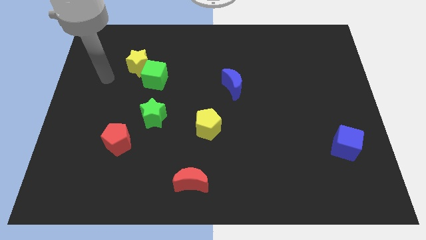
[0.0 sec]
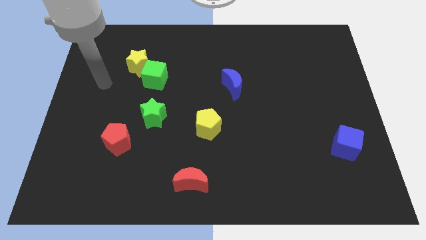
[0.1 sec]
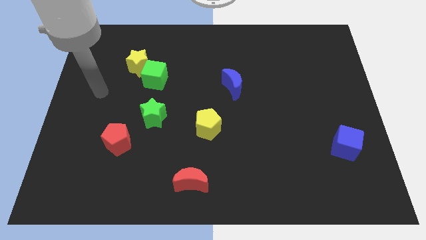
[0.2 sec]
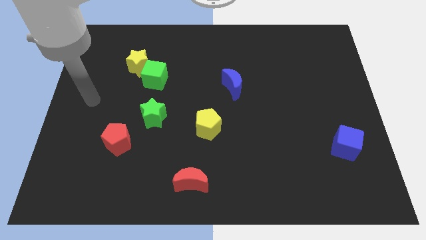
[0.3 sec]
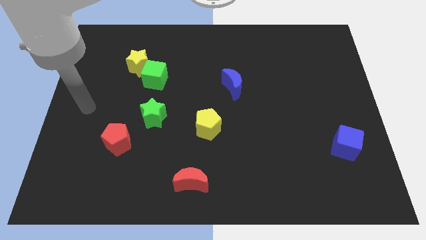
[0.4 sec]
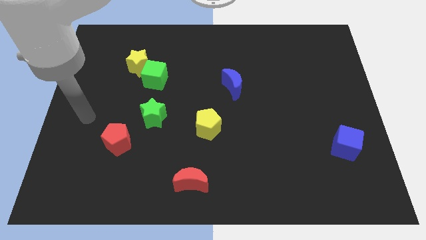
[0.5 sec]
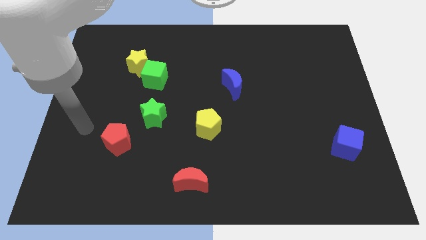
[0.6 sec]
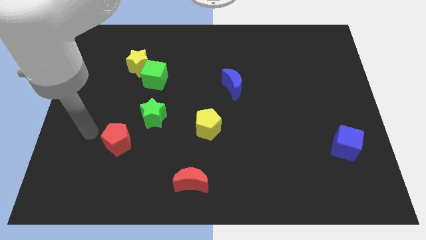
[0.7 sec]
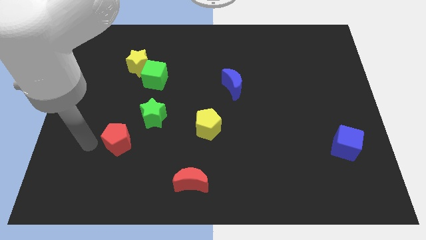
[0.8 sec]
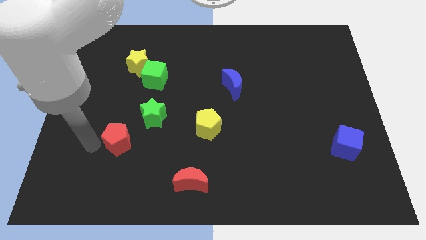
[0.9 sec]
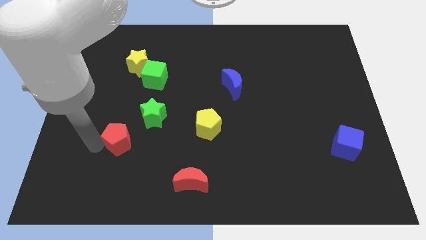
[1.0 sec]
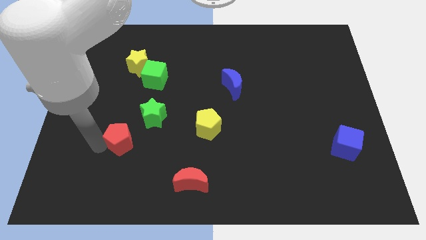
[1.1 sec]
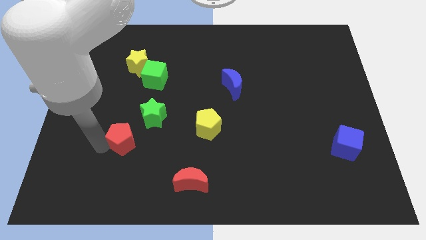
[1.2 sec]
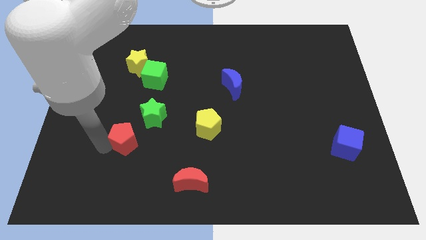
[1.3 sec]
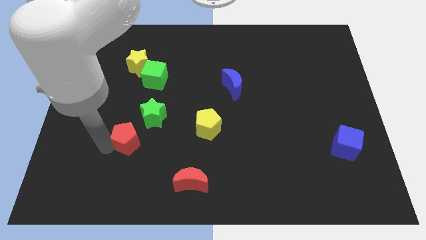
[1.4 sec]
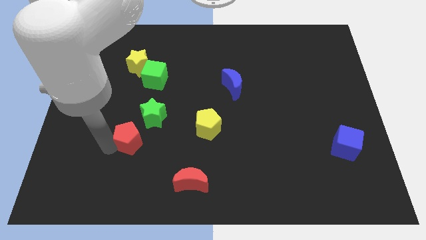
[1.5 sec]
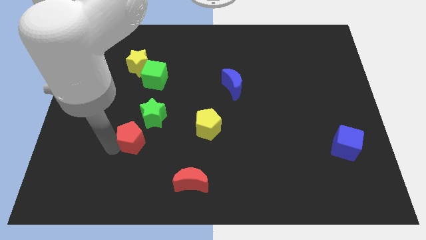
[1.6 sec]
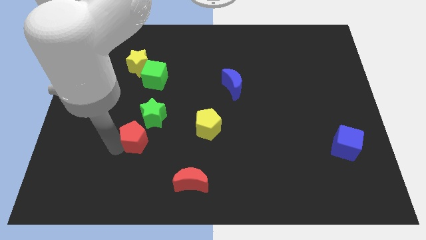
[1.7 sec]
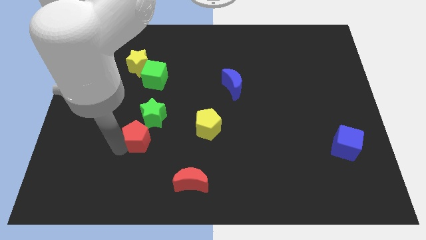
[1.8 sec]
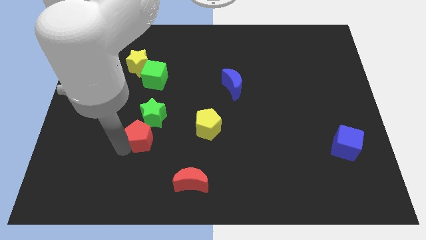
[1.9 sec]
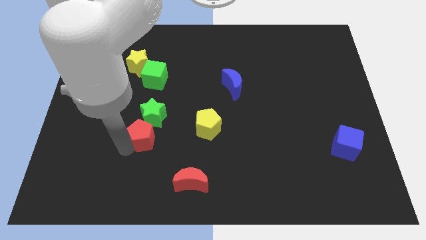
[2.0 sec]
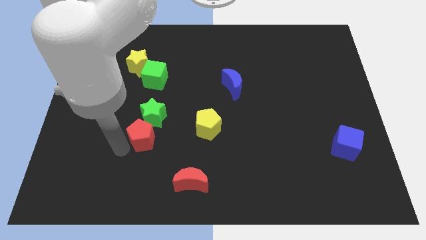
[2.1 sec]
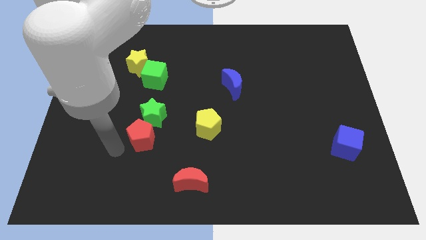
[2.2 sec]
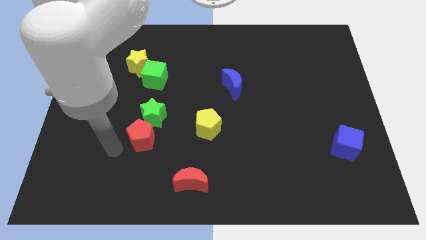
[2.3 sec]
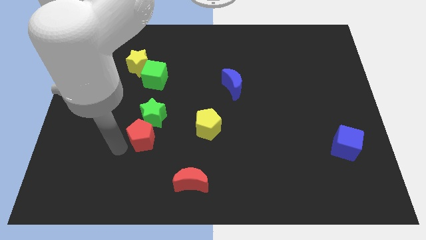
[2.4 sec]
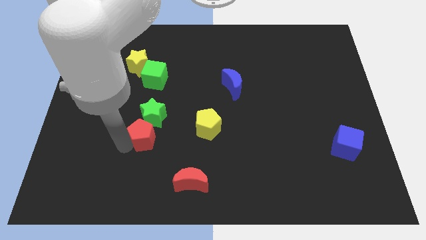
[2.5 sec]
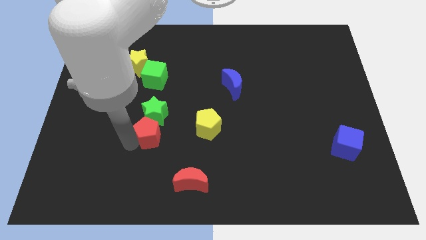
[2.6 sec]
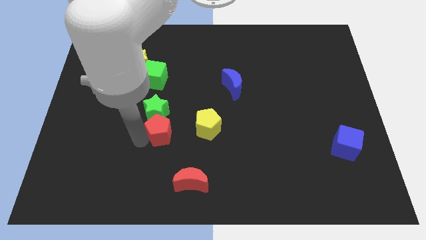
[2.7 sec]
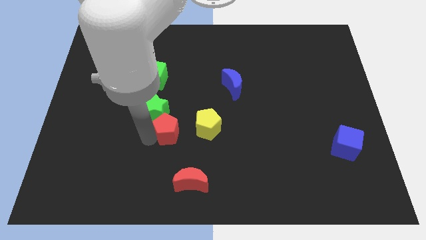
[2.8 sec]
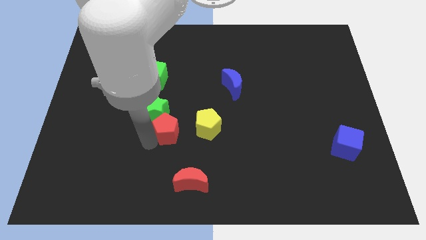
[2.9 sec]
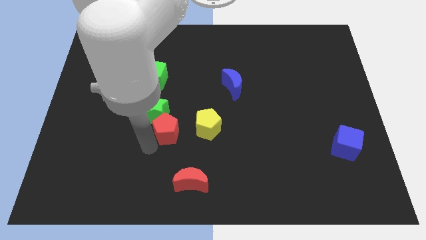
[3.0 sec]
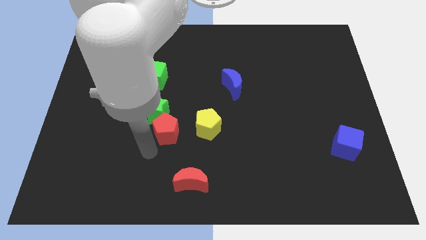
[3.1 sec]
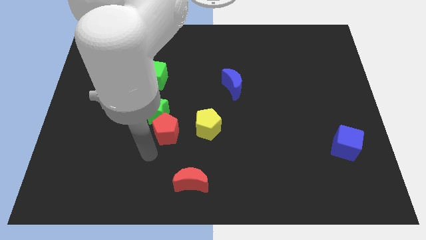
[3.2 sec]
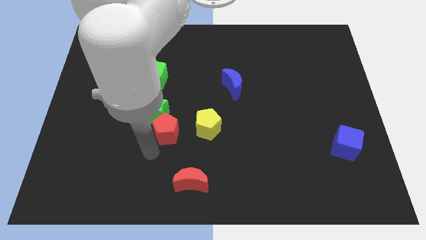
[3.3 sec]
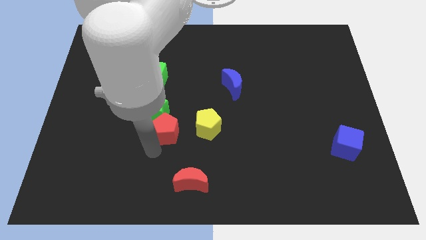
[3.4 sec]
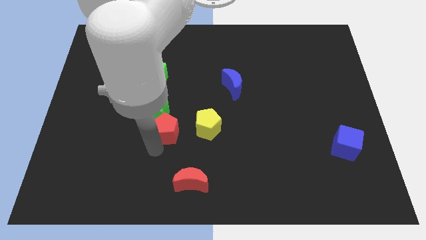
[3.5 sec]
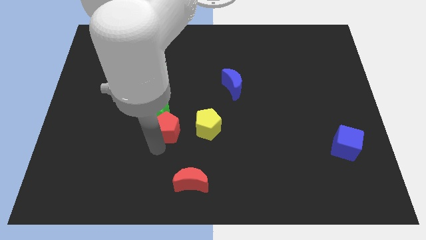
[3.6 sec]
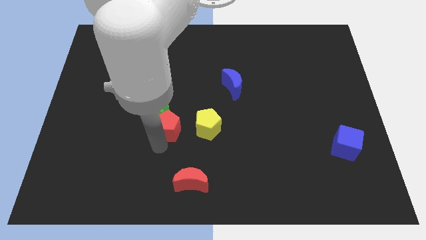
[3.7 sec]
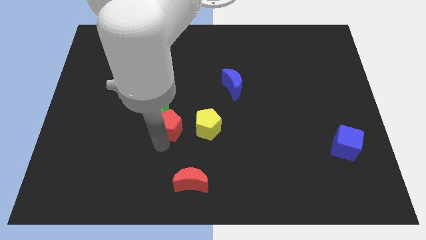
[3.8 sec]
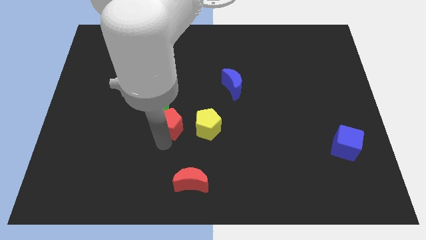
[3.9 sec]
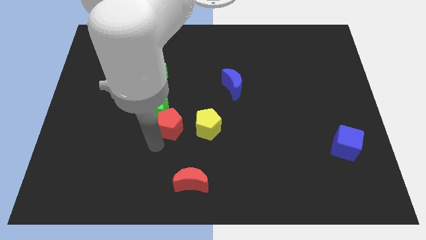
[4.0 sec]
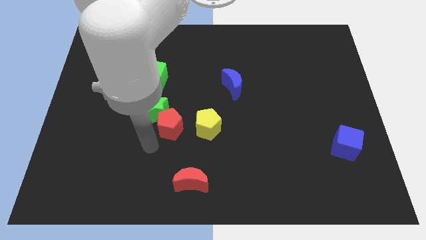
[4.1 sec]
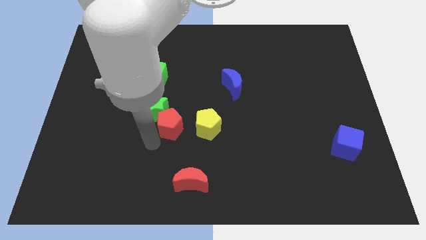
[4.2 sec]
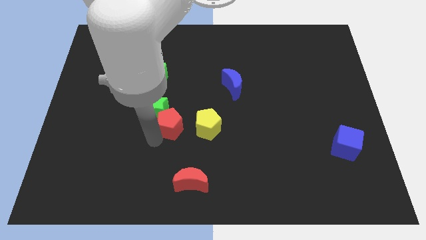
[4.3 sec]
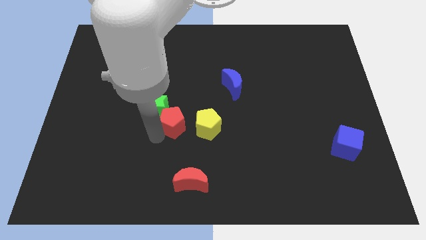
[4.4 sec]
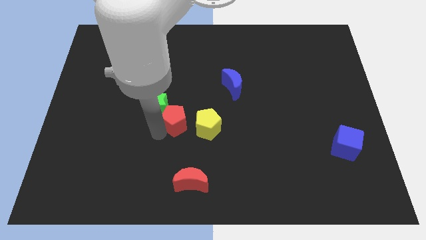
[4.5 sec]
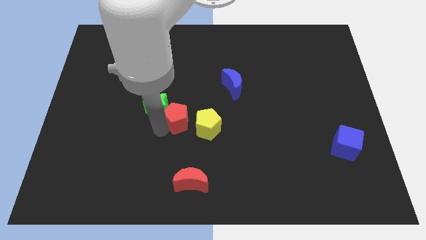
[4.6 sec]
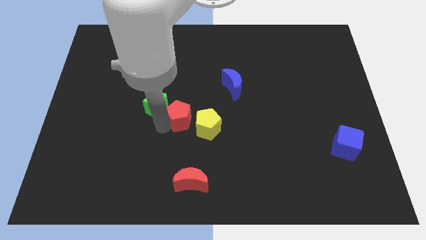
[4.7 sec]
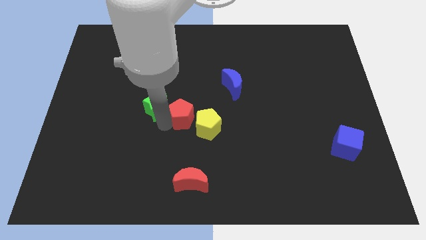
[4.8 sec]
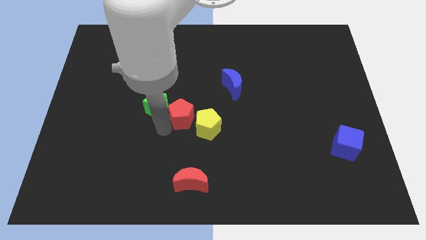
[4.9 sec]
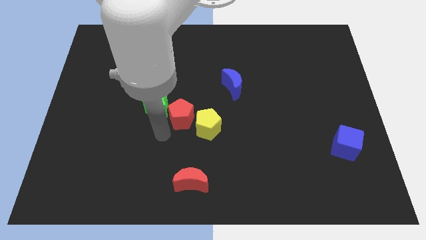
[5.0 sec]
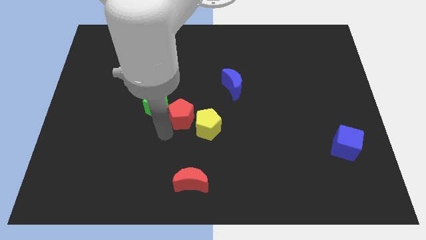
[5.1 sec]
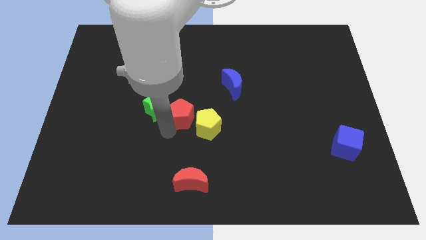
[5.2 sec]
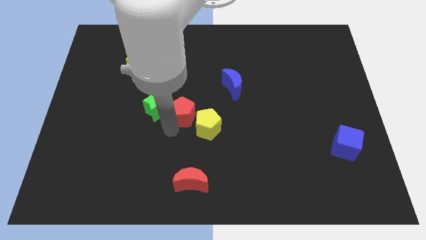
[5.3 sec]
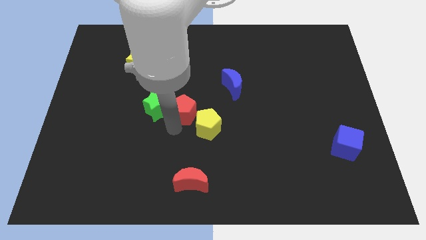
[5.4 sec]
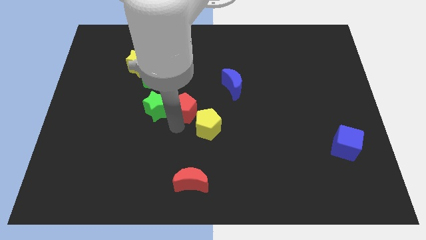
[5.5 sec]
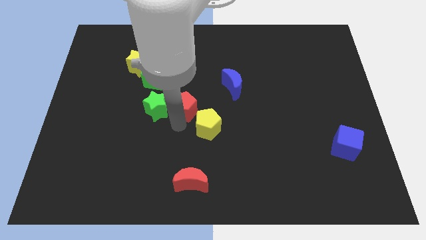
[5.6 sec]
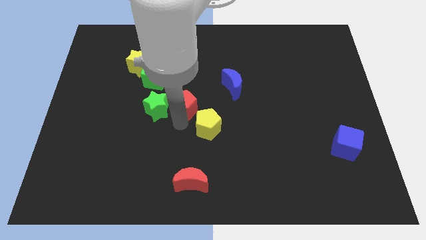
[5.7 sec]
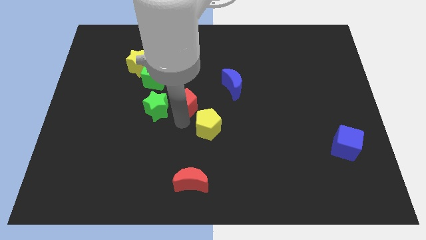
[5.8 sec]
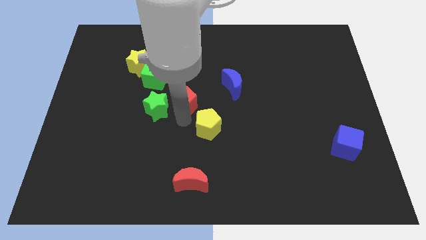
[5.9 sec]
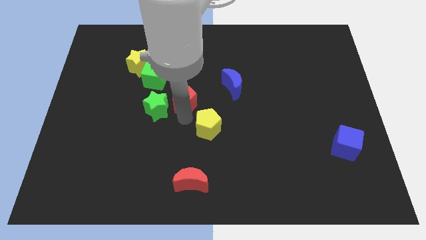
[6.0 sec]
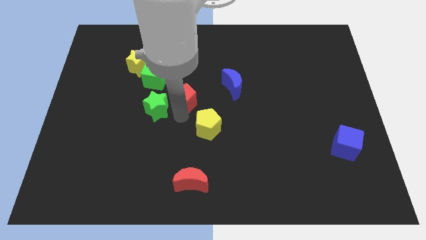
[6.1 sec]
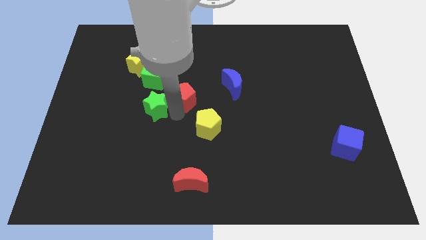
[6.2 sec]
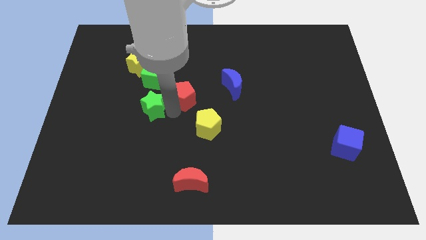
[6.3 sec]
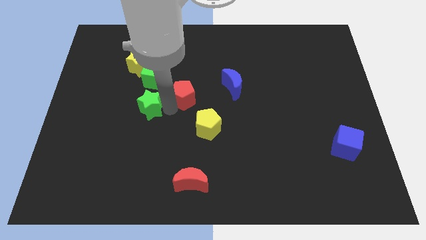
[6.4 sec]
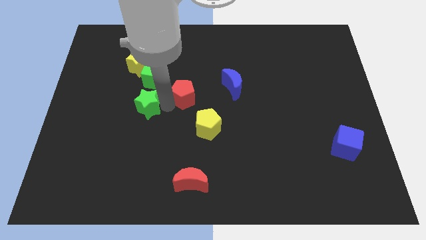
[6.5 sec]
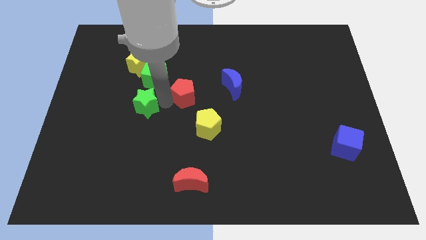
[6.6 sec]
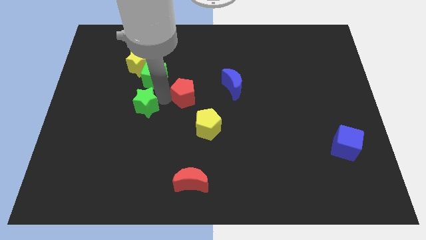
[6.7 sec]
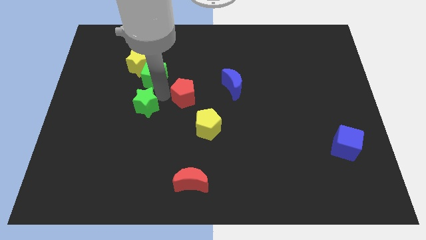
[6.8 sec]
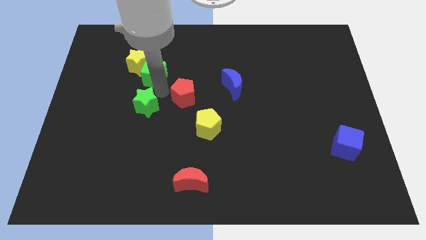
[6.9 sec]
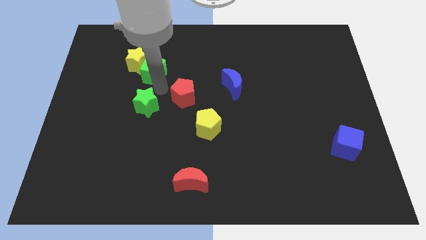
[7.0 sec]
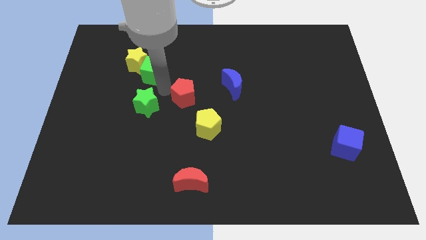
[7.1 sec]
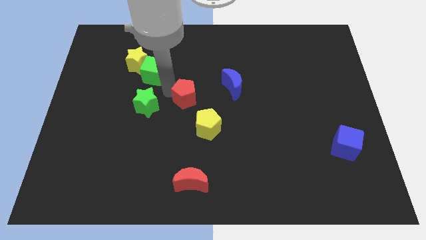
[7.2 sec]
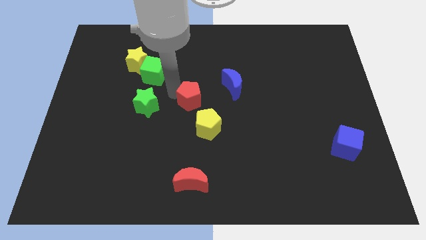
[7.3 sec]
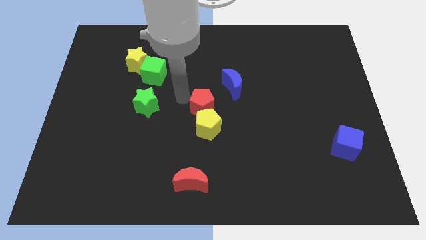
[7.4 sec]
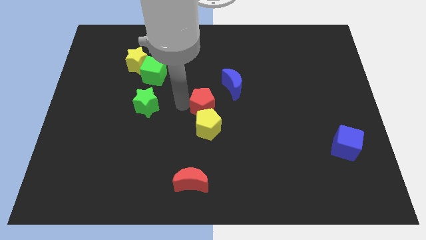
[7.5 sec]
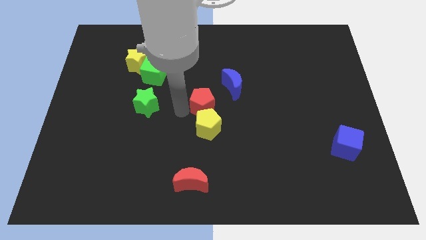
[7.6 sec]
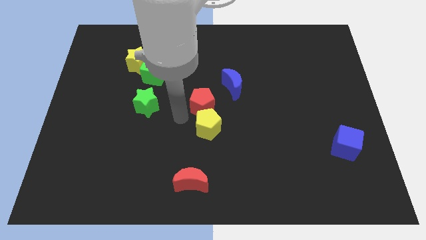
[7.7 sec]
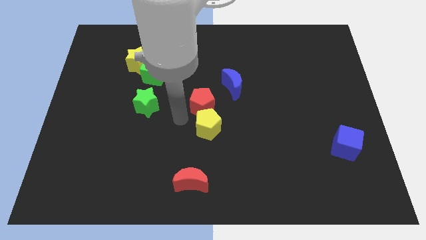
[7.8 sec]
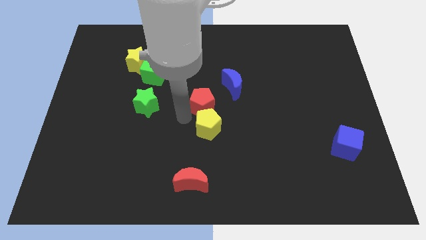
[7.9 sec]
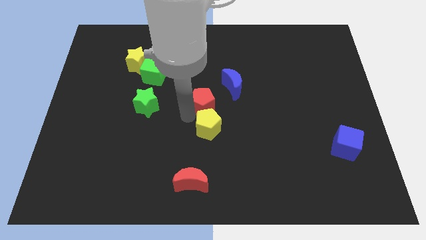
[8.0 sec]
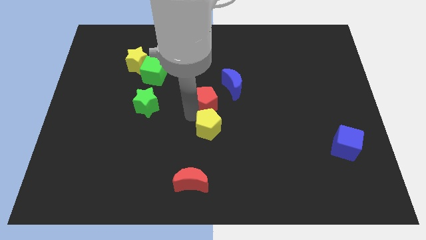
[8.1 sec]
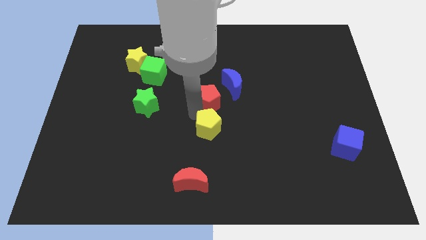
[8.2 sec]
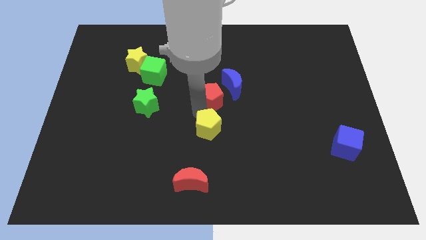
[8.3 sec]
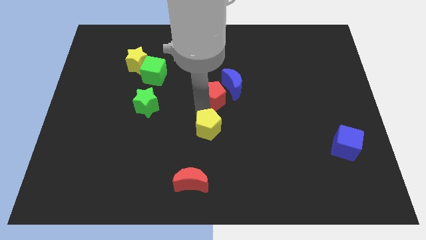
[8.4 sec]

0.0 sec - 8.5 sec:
push the red pentagon towards the blue moon
